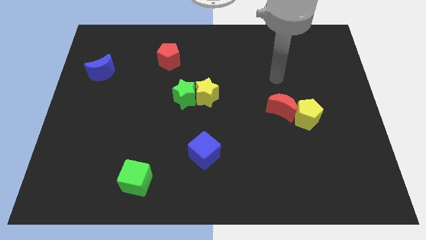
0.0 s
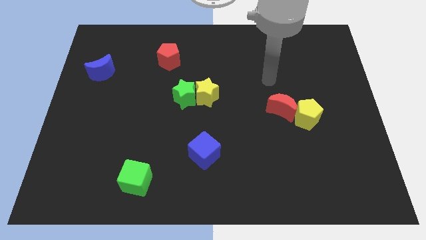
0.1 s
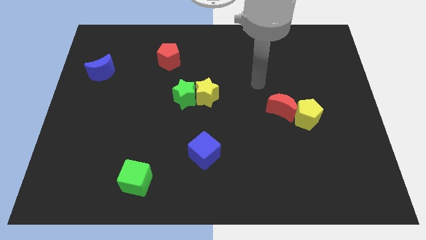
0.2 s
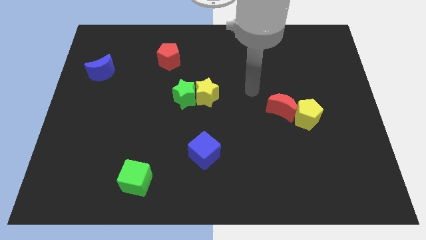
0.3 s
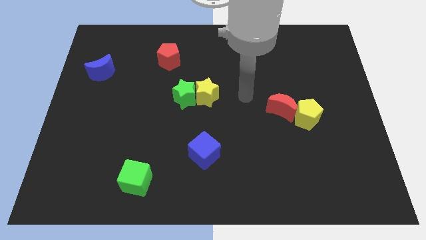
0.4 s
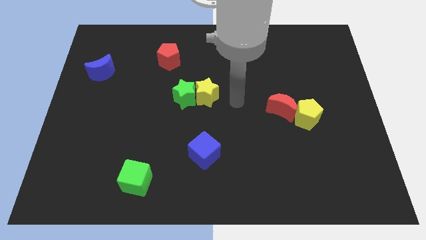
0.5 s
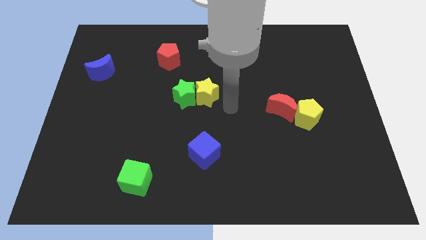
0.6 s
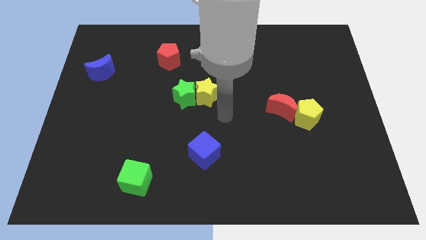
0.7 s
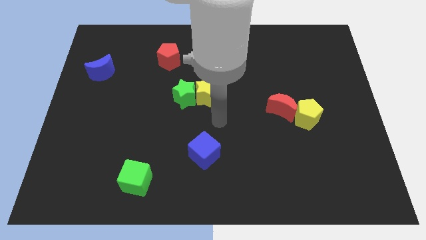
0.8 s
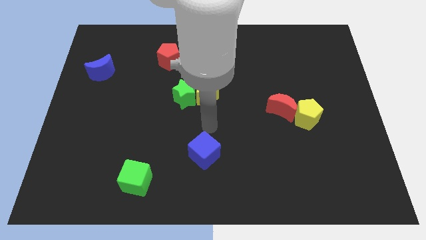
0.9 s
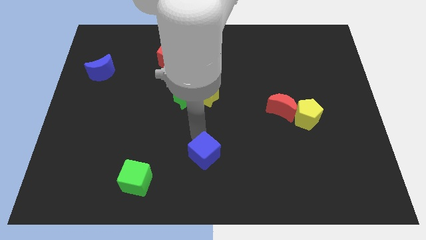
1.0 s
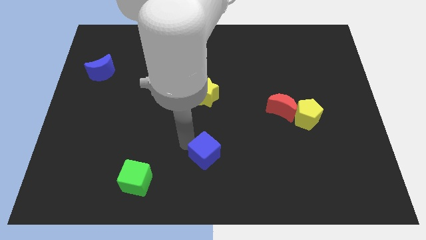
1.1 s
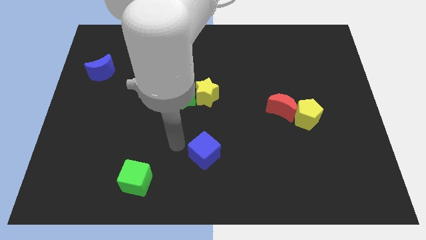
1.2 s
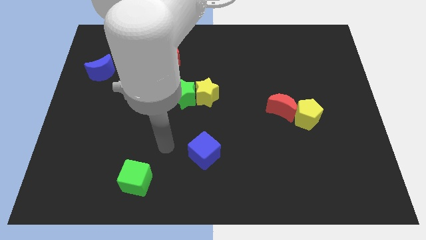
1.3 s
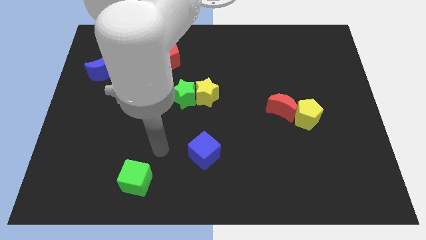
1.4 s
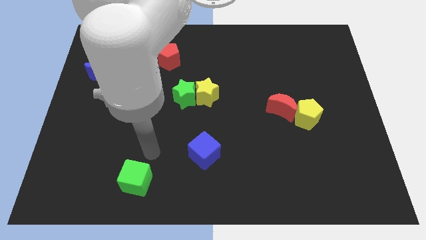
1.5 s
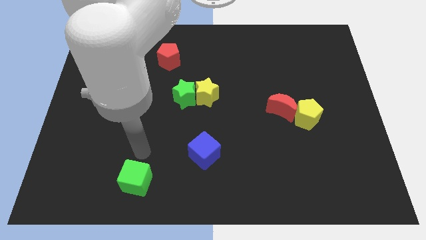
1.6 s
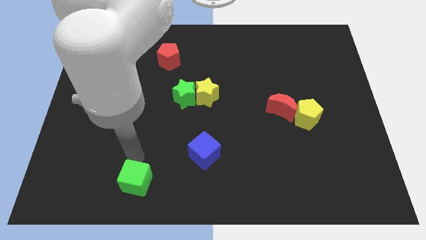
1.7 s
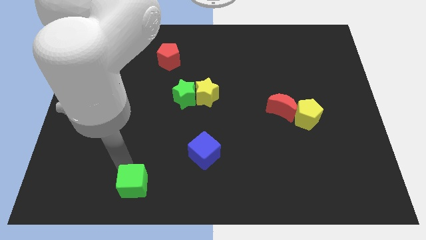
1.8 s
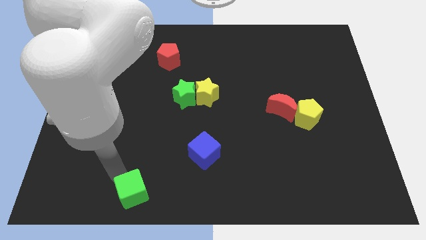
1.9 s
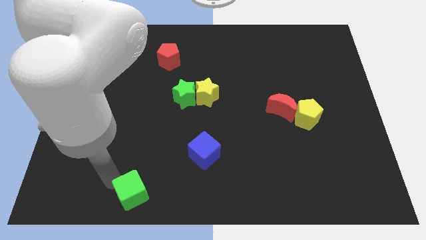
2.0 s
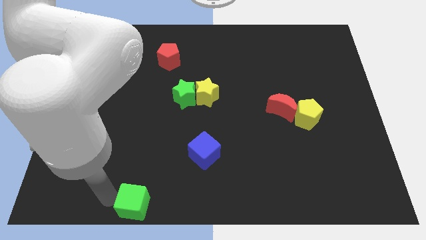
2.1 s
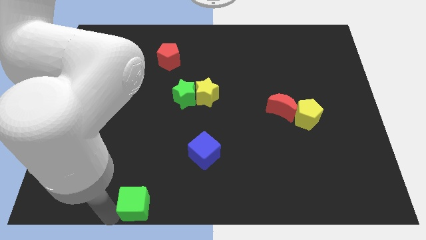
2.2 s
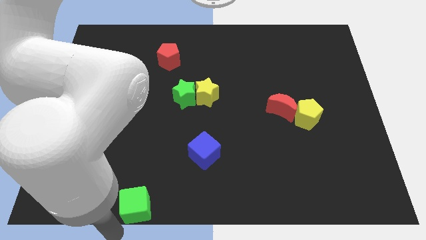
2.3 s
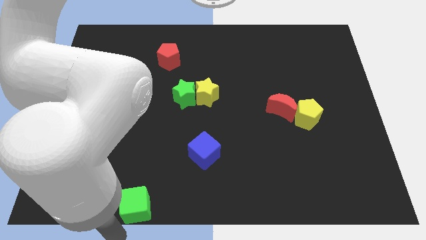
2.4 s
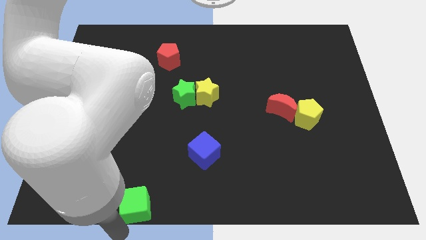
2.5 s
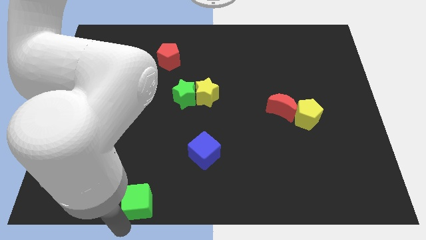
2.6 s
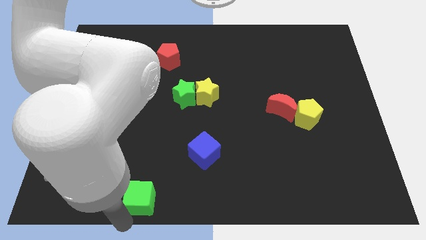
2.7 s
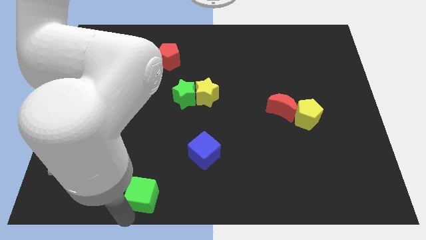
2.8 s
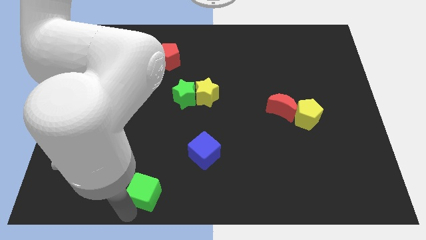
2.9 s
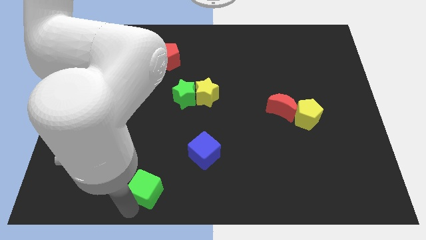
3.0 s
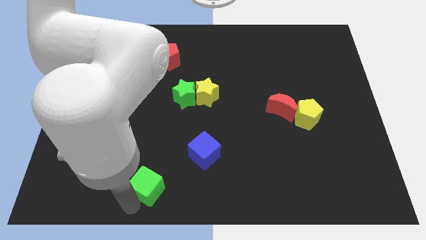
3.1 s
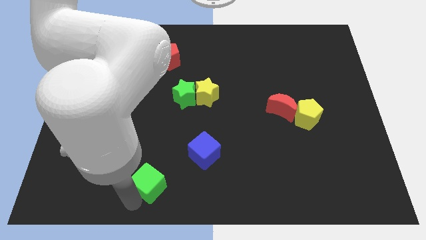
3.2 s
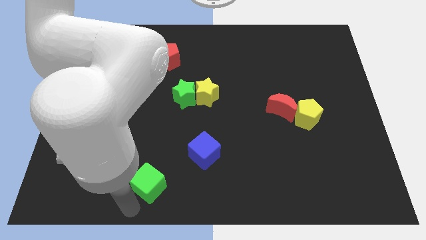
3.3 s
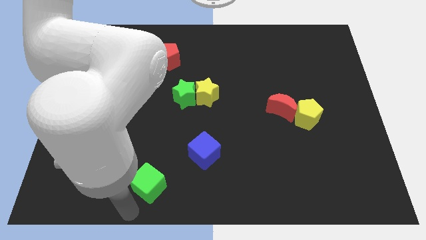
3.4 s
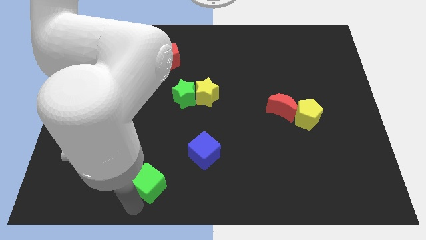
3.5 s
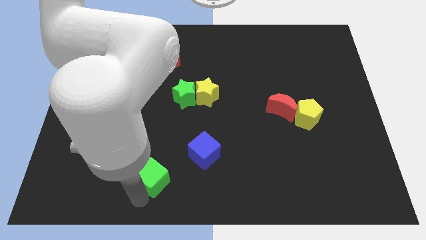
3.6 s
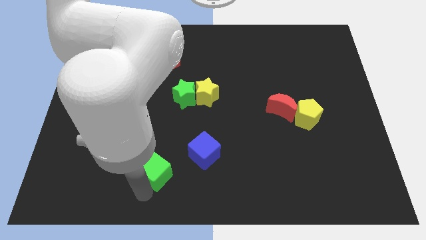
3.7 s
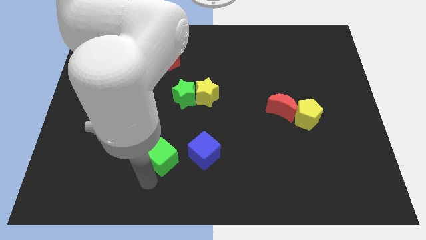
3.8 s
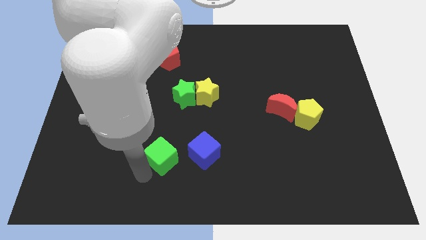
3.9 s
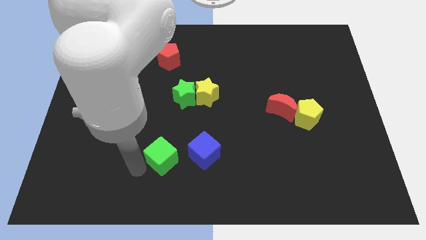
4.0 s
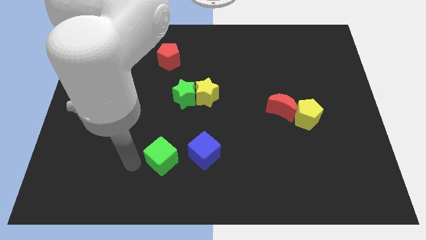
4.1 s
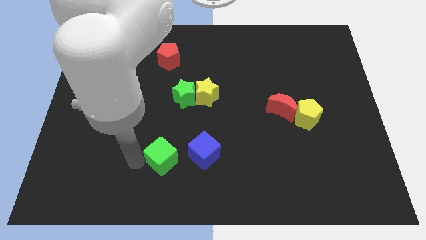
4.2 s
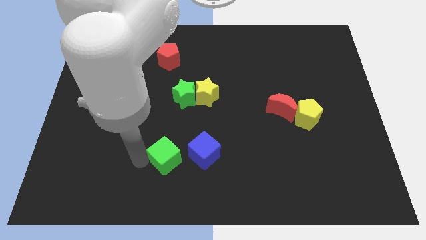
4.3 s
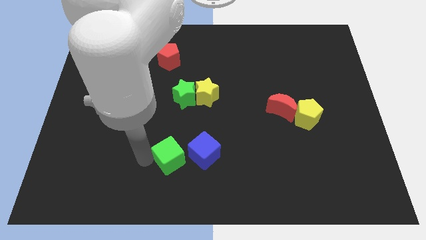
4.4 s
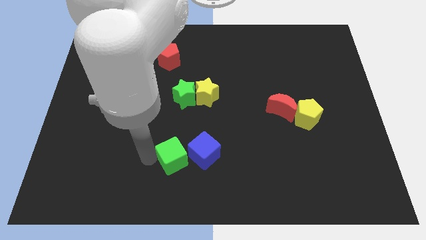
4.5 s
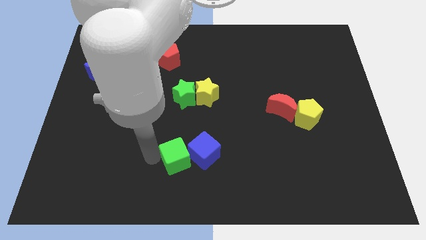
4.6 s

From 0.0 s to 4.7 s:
put the green cube next to the blue cube

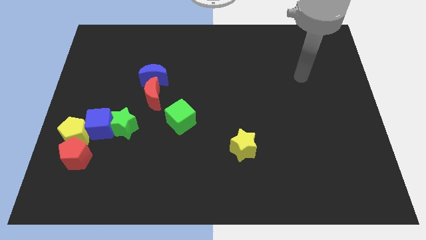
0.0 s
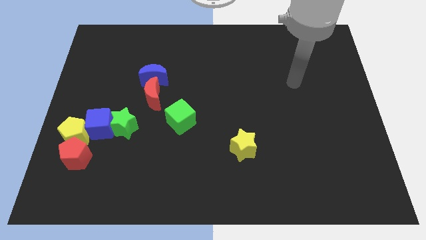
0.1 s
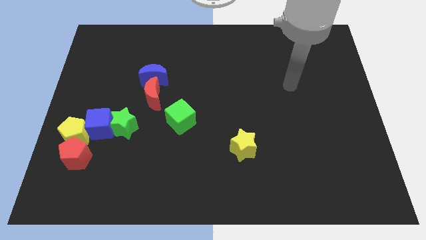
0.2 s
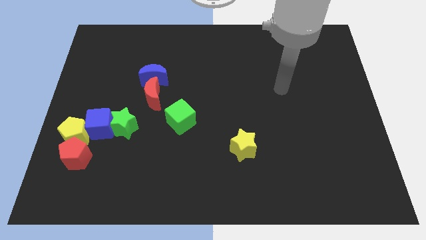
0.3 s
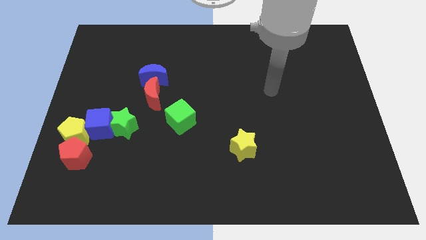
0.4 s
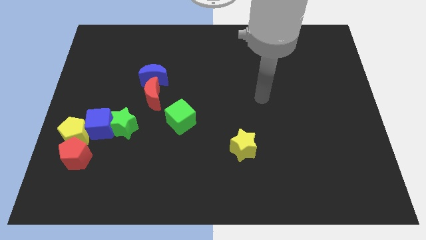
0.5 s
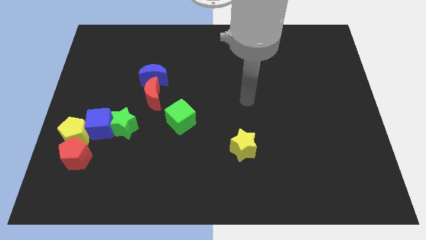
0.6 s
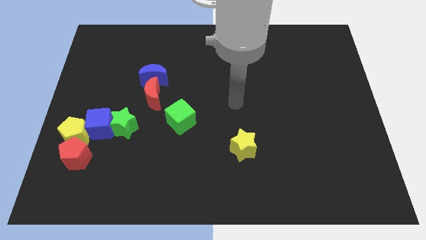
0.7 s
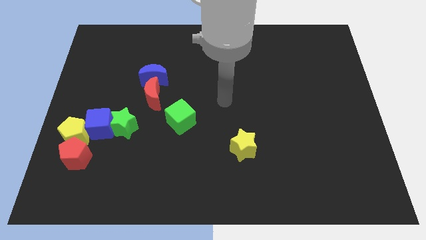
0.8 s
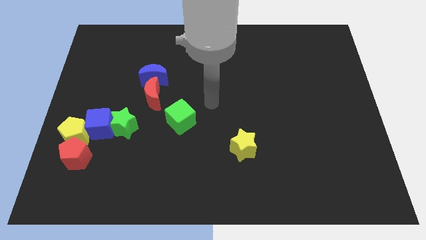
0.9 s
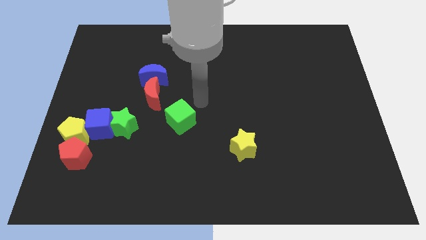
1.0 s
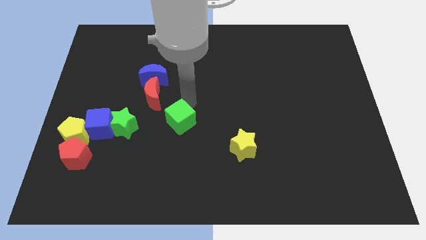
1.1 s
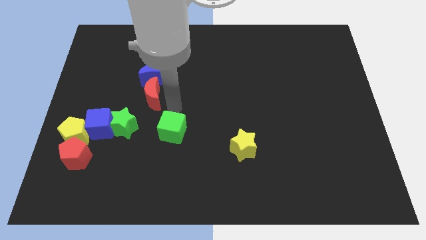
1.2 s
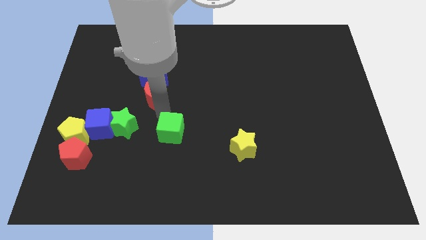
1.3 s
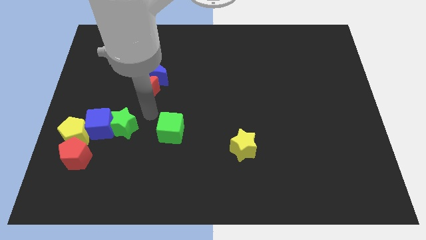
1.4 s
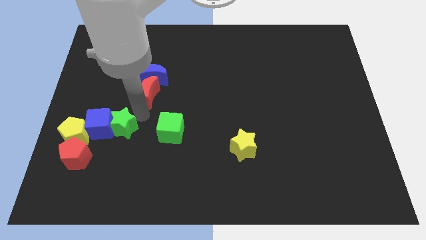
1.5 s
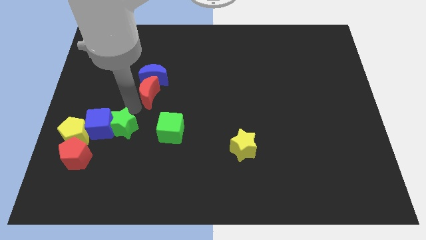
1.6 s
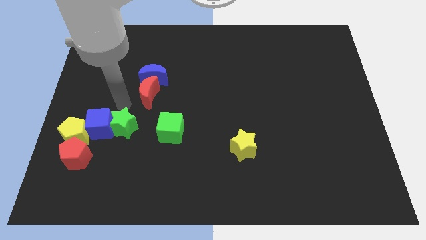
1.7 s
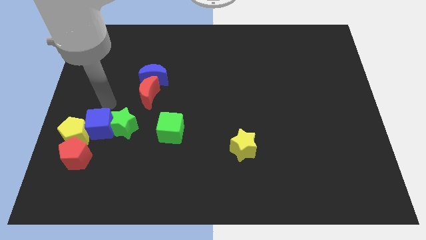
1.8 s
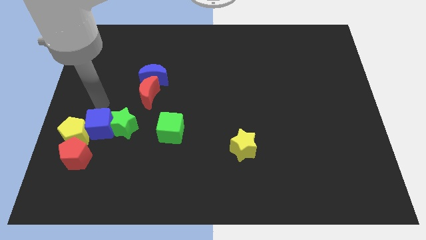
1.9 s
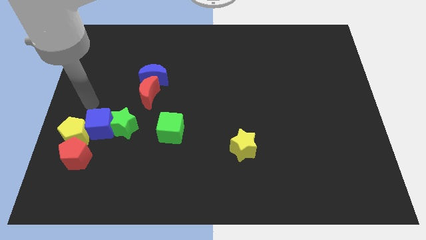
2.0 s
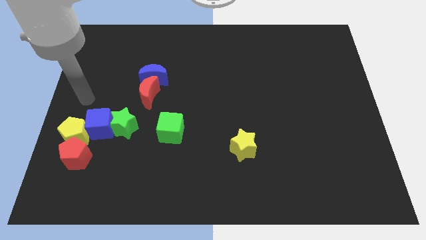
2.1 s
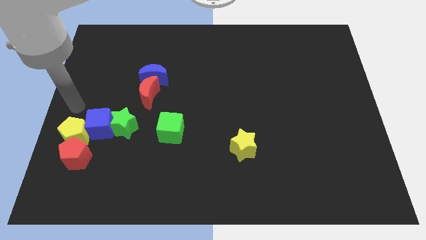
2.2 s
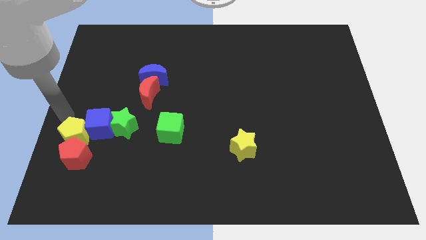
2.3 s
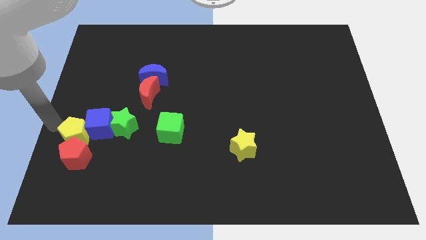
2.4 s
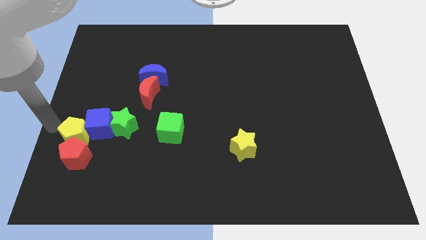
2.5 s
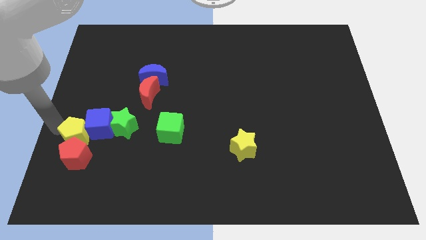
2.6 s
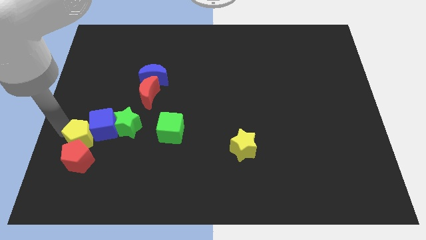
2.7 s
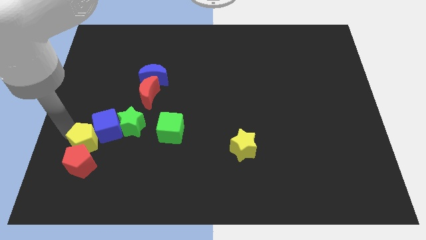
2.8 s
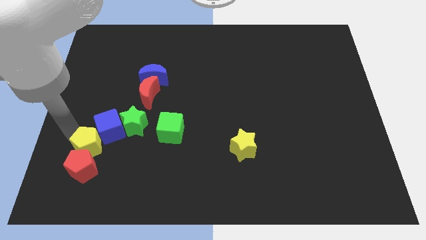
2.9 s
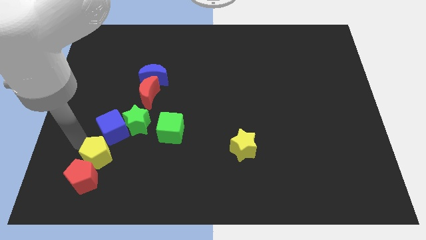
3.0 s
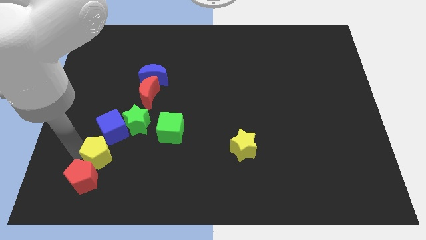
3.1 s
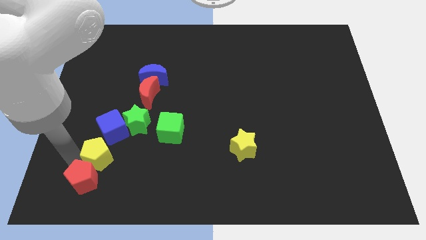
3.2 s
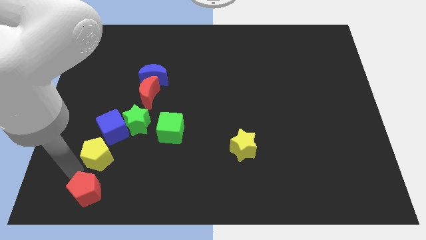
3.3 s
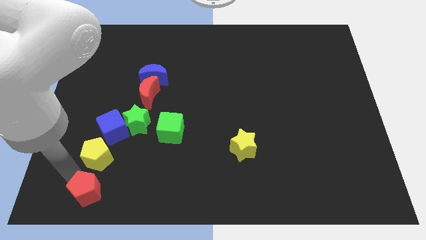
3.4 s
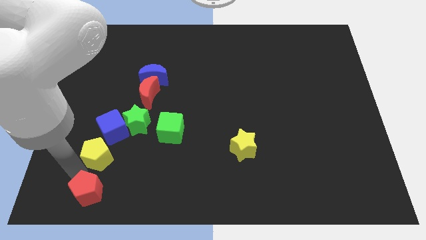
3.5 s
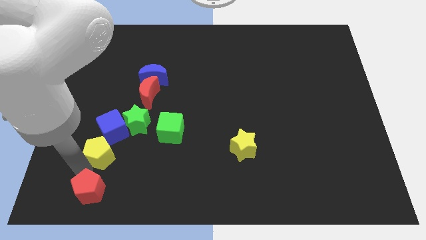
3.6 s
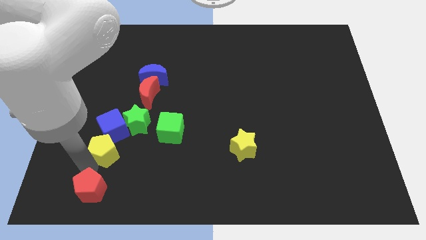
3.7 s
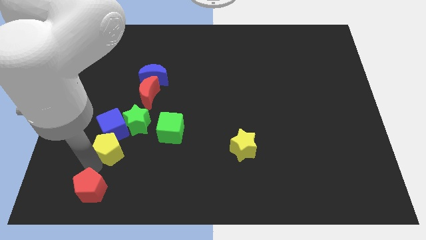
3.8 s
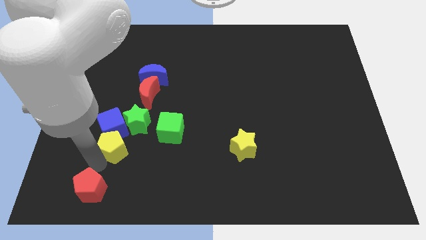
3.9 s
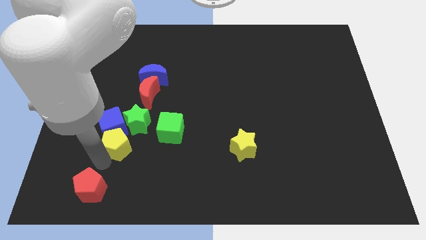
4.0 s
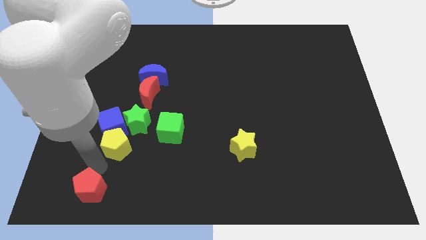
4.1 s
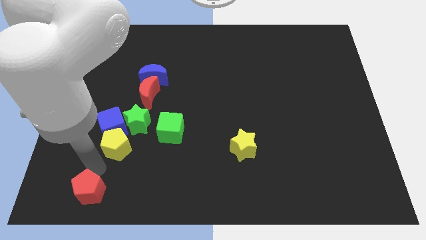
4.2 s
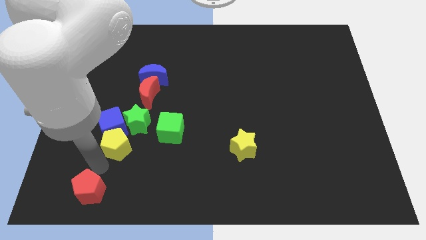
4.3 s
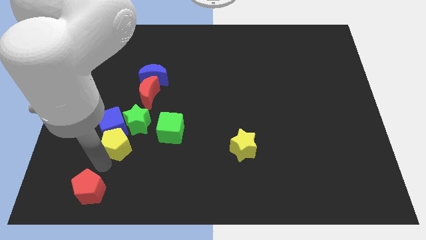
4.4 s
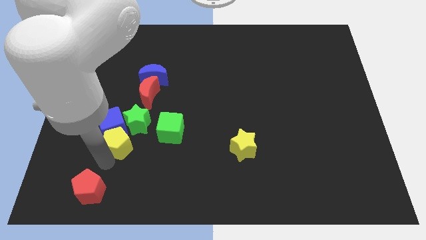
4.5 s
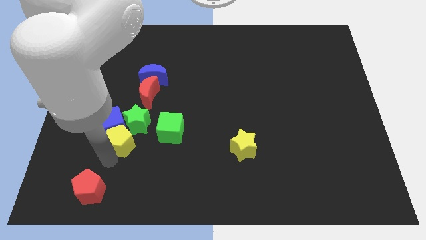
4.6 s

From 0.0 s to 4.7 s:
put the yellow pentagon close to the green star
